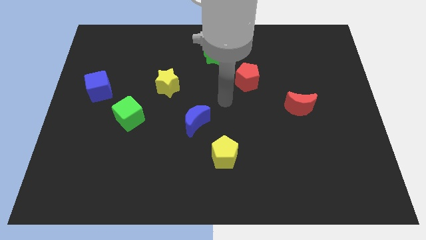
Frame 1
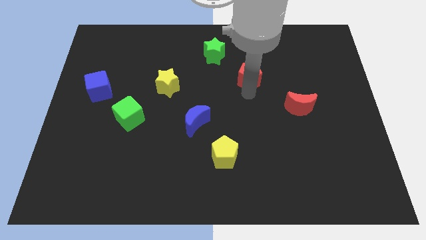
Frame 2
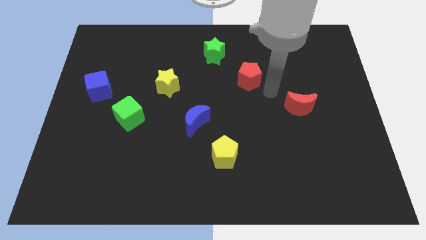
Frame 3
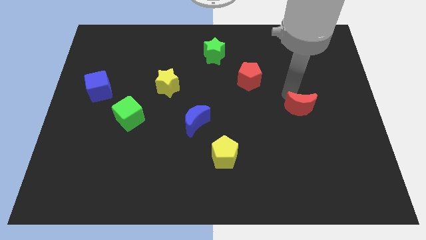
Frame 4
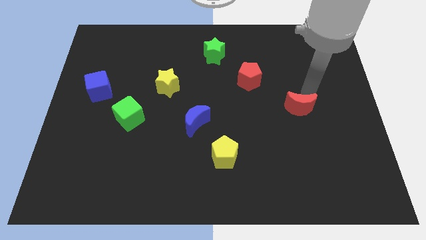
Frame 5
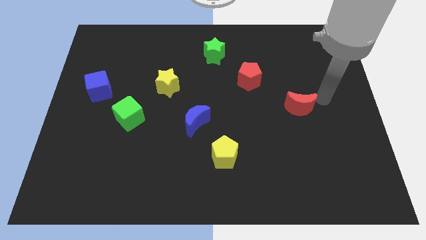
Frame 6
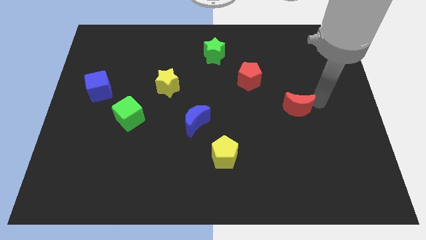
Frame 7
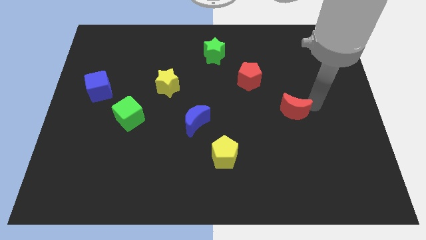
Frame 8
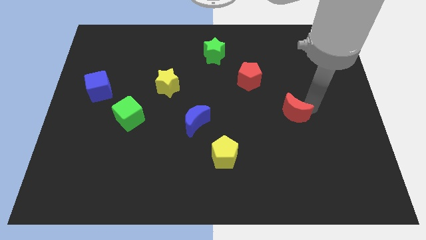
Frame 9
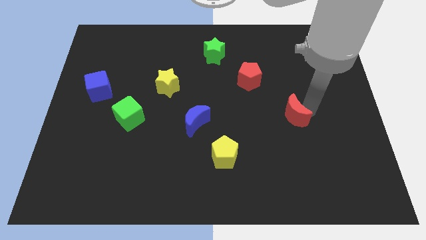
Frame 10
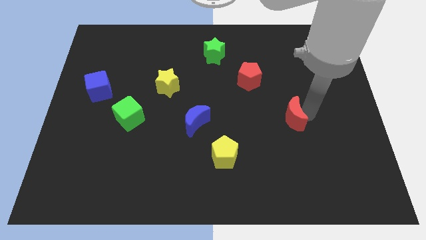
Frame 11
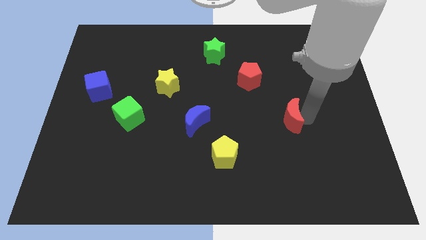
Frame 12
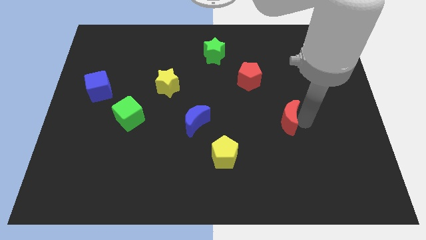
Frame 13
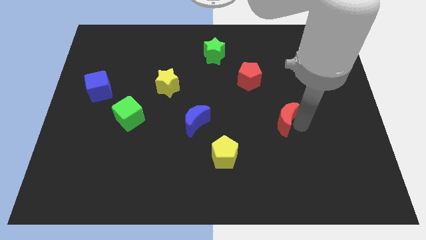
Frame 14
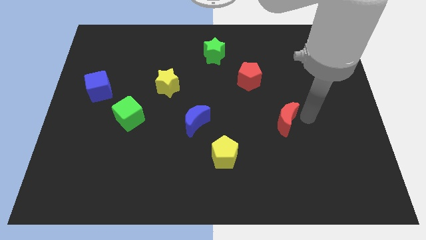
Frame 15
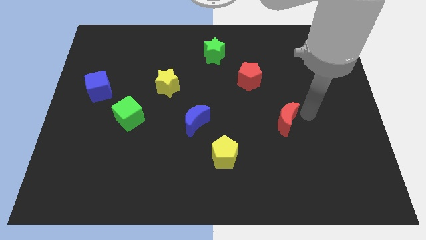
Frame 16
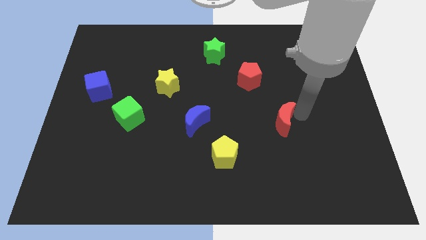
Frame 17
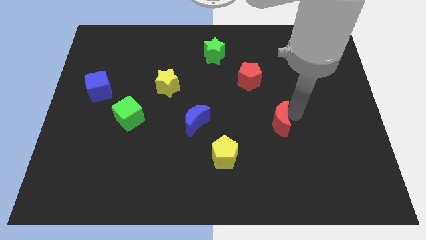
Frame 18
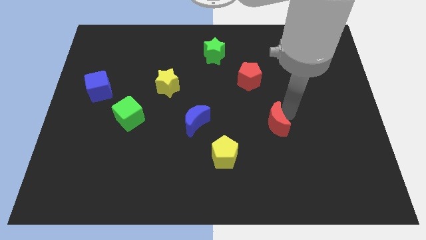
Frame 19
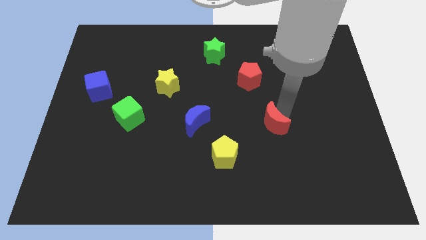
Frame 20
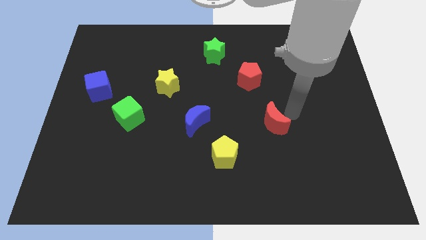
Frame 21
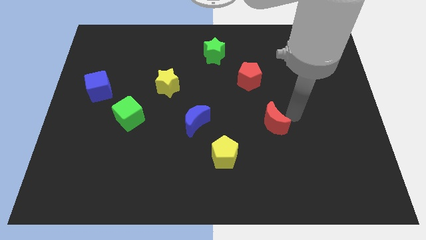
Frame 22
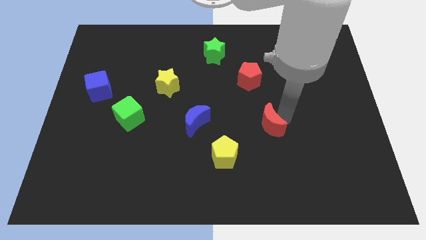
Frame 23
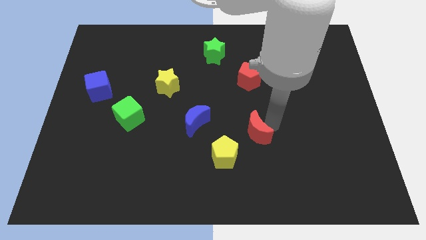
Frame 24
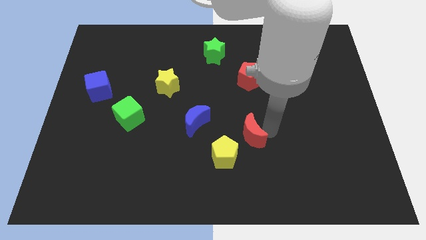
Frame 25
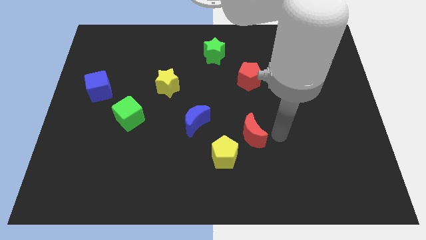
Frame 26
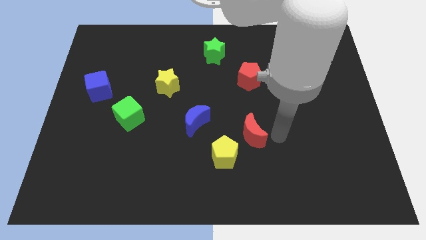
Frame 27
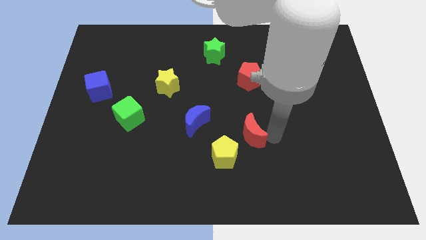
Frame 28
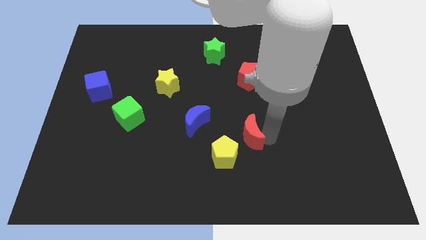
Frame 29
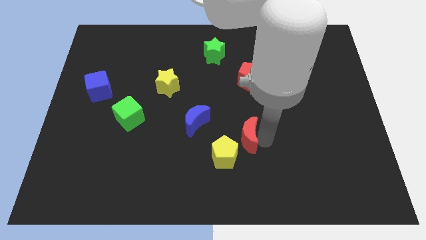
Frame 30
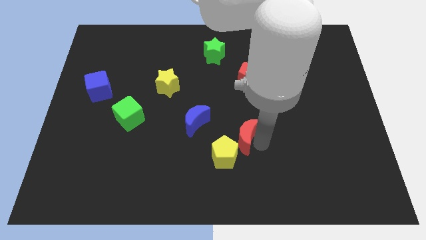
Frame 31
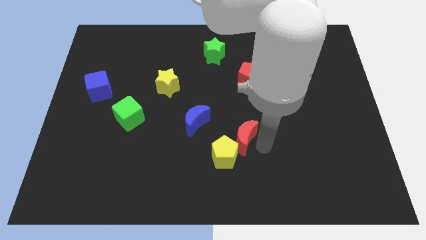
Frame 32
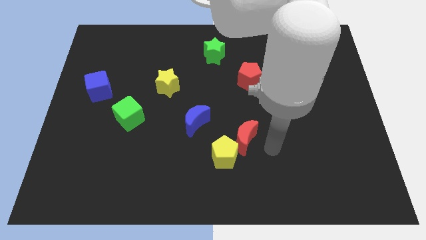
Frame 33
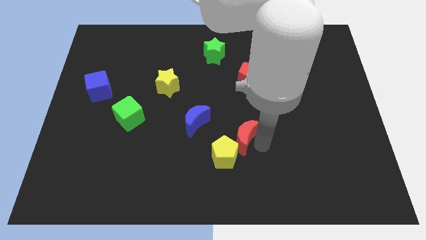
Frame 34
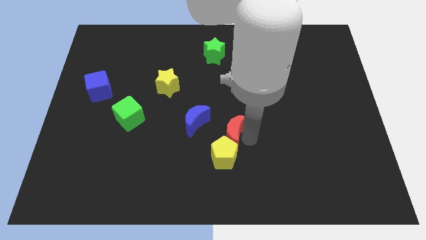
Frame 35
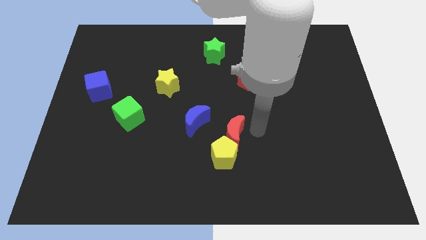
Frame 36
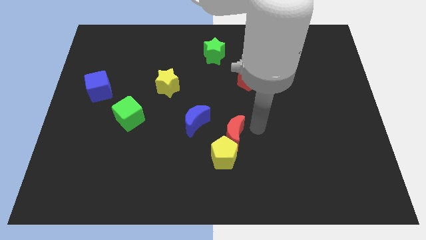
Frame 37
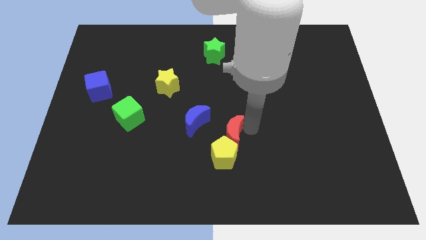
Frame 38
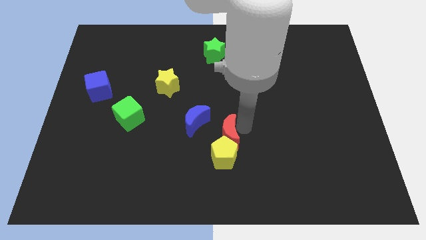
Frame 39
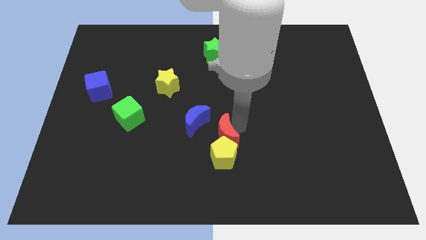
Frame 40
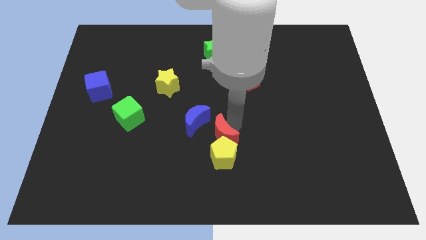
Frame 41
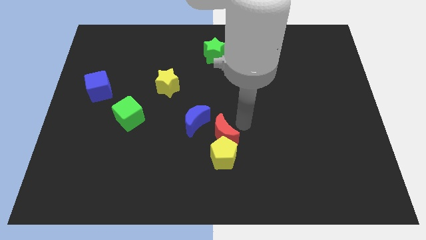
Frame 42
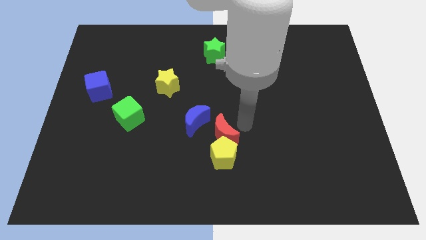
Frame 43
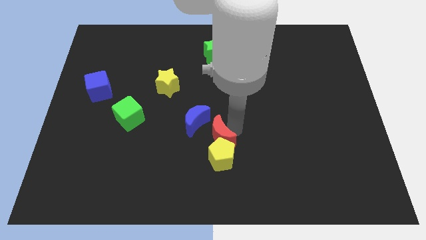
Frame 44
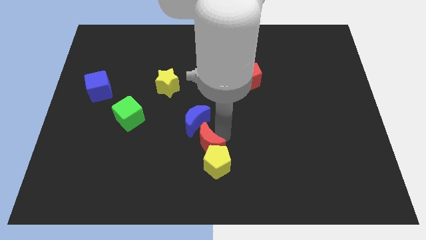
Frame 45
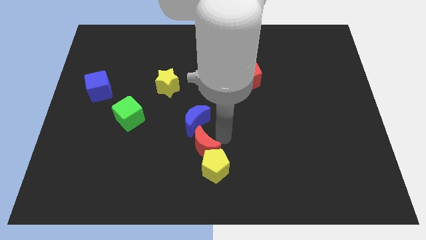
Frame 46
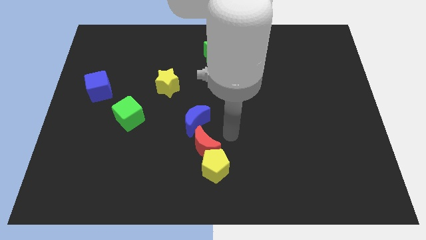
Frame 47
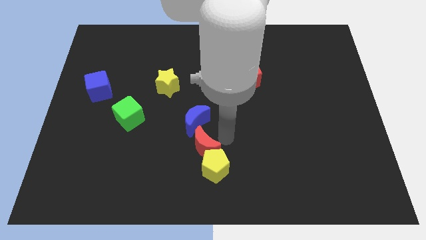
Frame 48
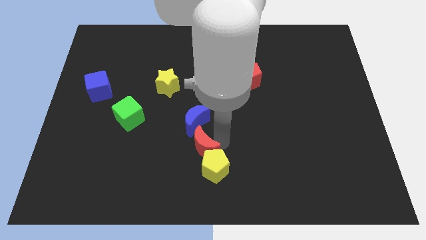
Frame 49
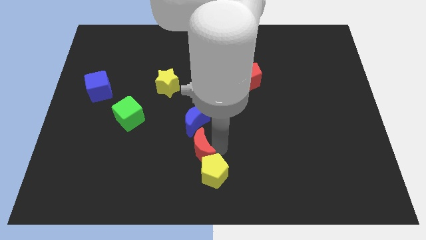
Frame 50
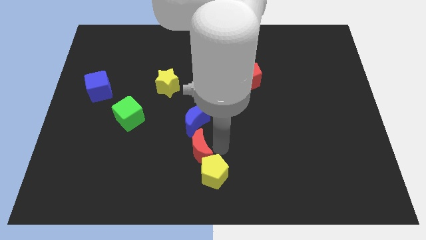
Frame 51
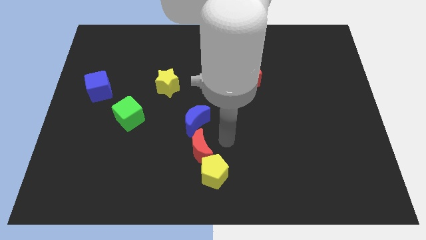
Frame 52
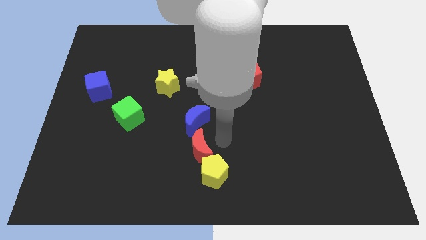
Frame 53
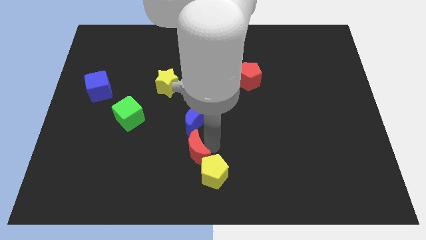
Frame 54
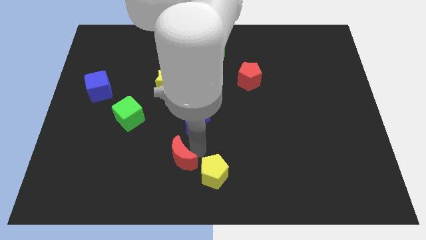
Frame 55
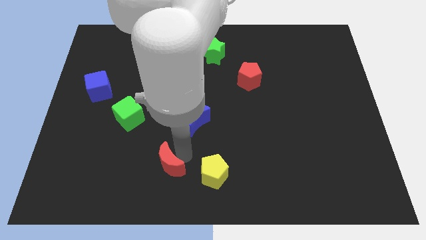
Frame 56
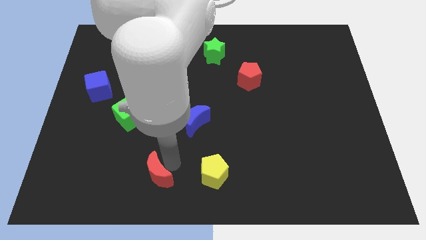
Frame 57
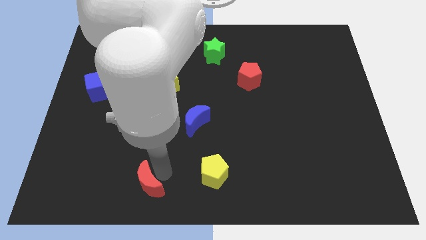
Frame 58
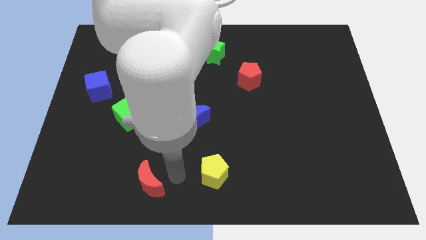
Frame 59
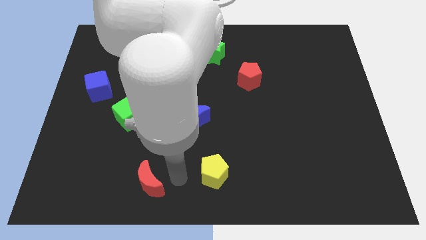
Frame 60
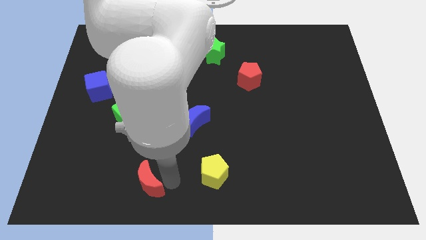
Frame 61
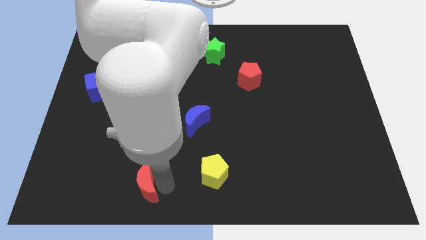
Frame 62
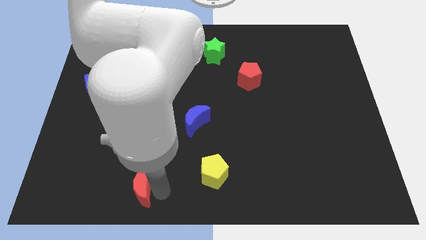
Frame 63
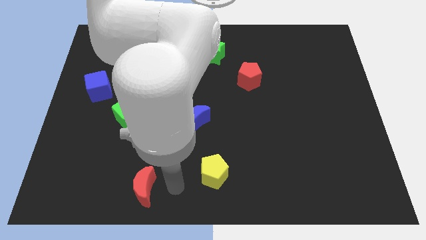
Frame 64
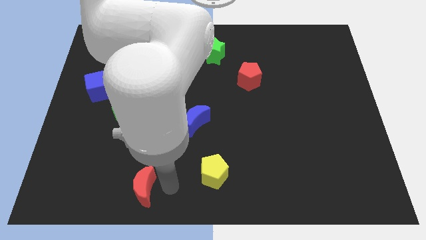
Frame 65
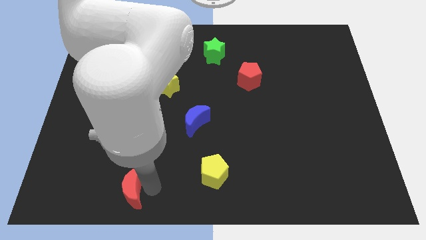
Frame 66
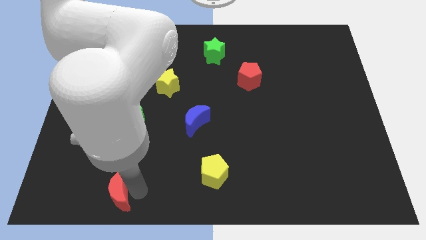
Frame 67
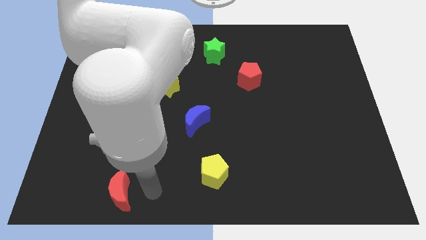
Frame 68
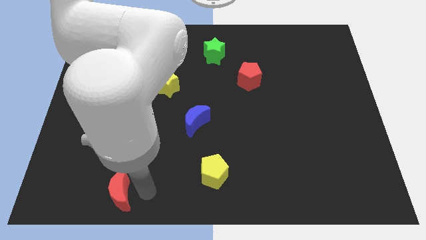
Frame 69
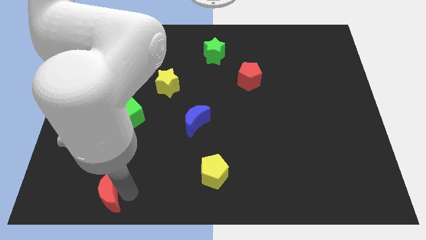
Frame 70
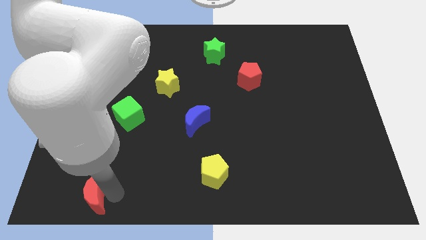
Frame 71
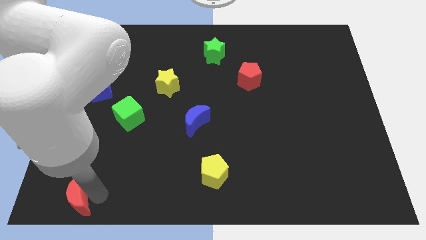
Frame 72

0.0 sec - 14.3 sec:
push the red moon to the bottom left of the board
